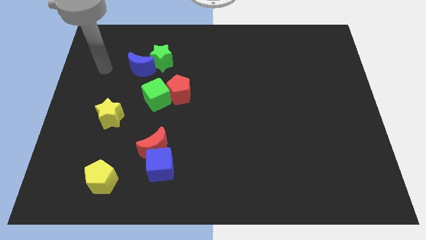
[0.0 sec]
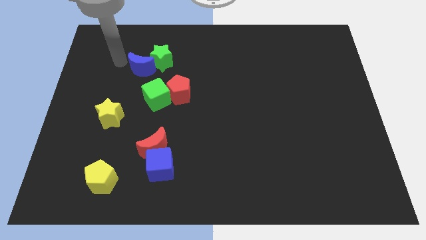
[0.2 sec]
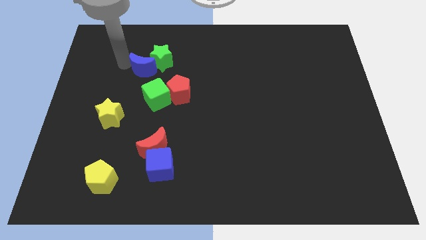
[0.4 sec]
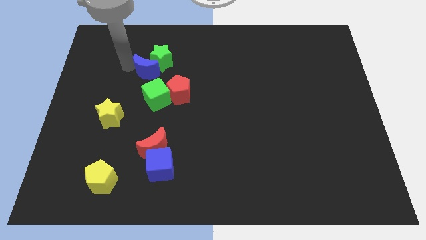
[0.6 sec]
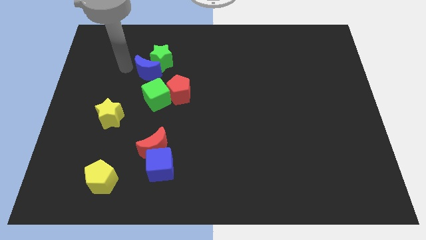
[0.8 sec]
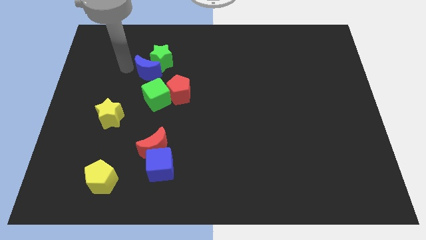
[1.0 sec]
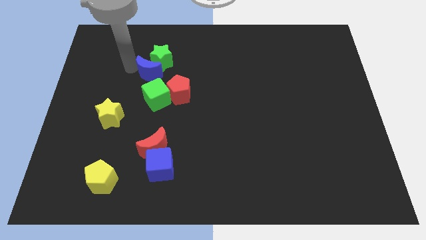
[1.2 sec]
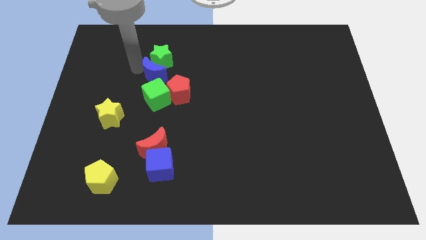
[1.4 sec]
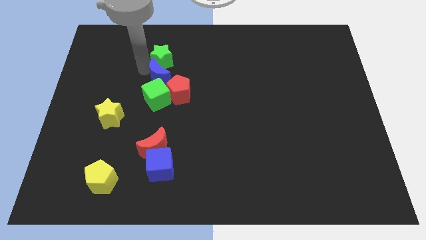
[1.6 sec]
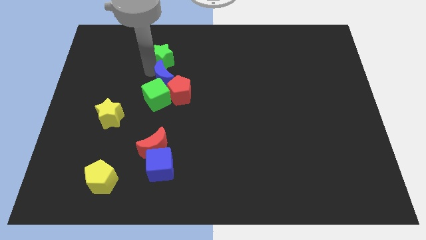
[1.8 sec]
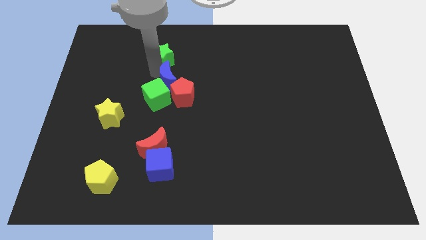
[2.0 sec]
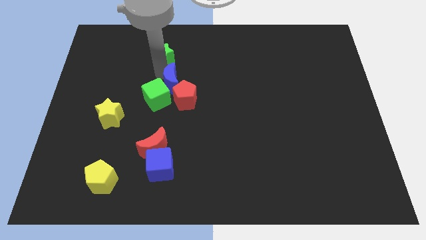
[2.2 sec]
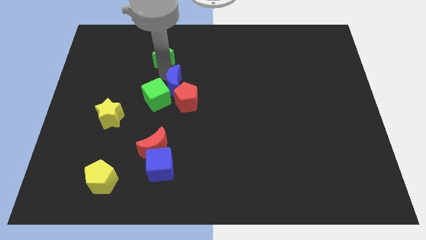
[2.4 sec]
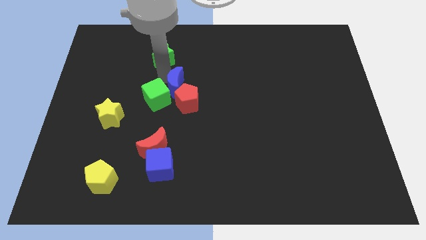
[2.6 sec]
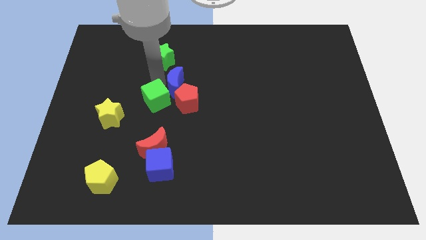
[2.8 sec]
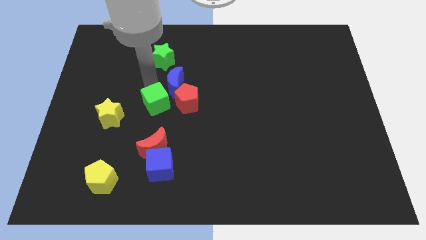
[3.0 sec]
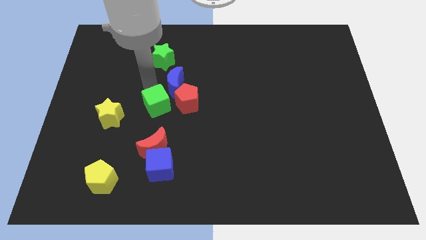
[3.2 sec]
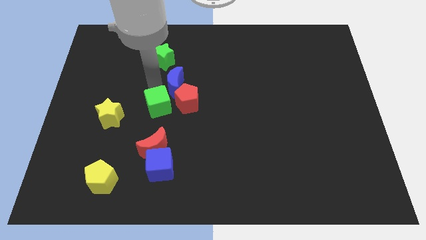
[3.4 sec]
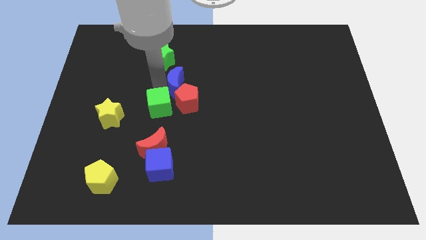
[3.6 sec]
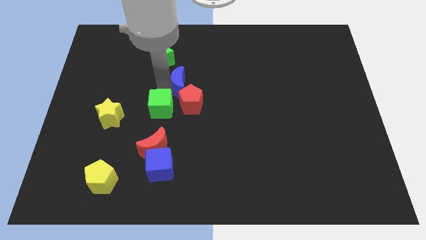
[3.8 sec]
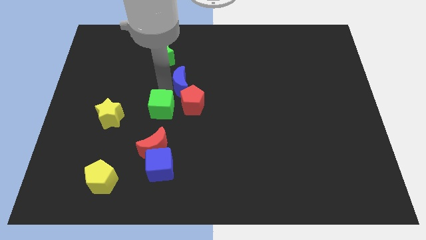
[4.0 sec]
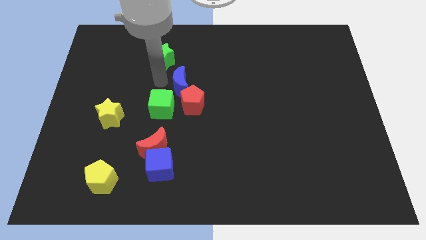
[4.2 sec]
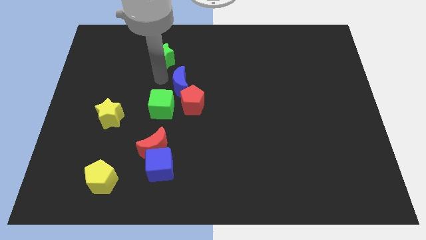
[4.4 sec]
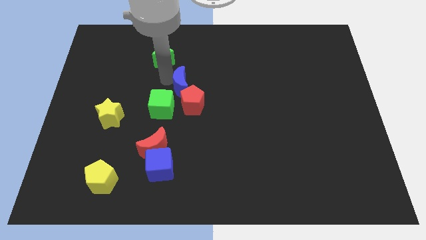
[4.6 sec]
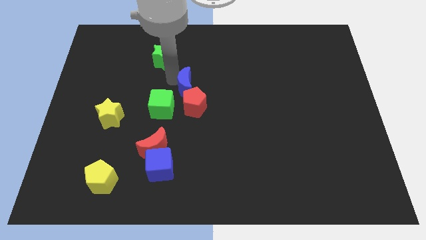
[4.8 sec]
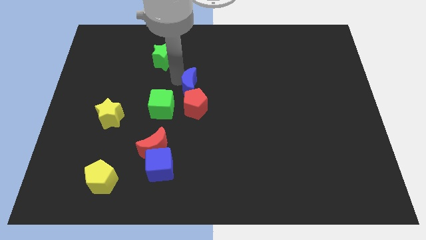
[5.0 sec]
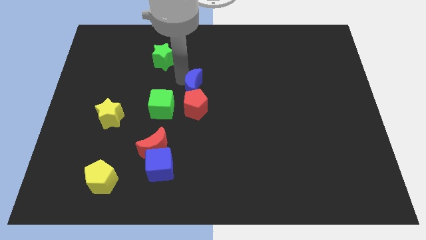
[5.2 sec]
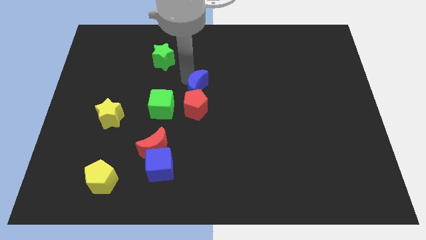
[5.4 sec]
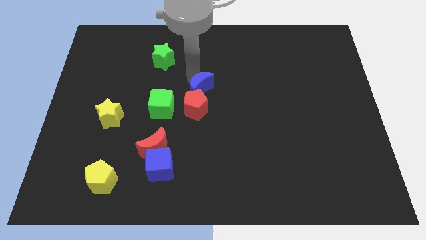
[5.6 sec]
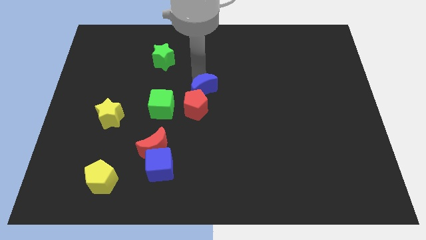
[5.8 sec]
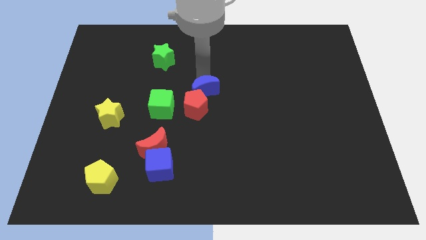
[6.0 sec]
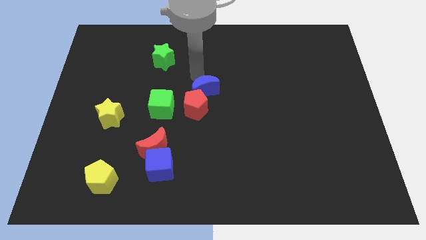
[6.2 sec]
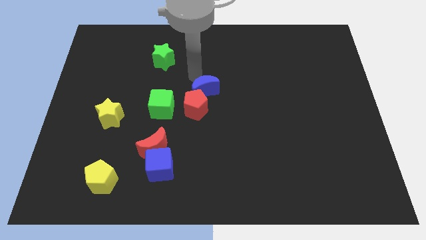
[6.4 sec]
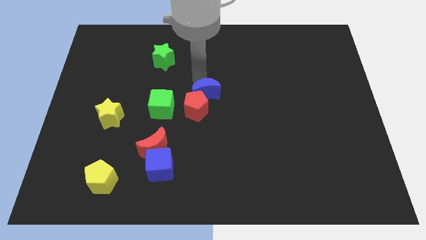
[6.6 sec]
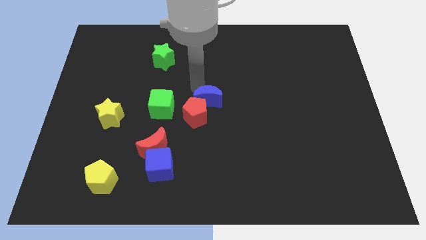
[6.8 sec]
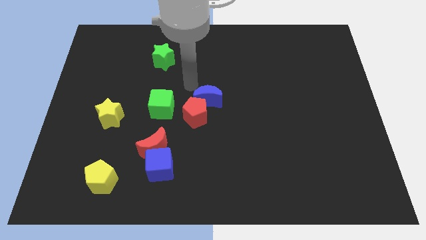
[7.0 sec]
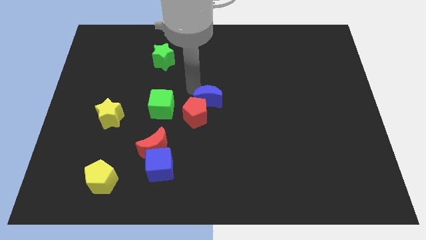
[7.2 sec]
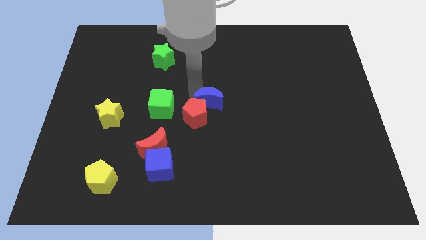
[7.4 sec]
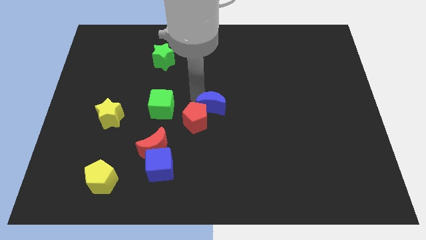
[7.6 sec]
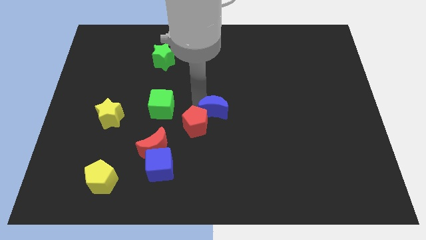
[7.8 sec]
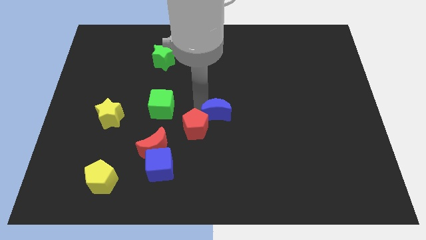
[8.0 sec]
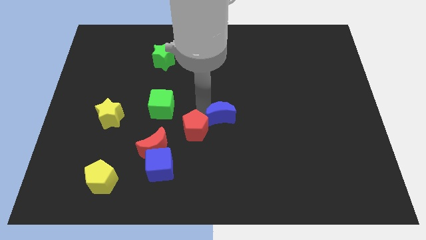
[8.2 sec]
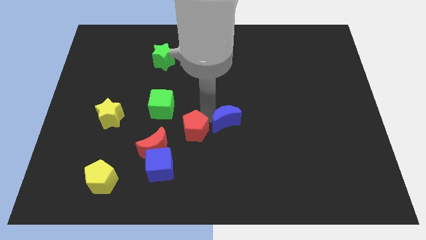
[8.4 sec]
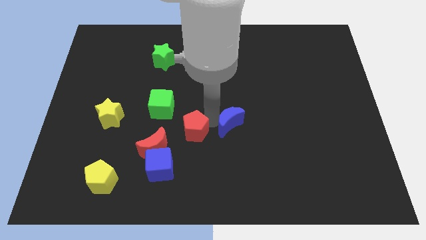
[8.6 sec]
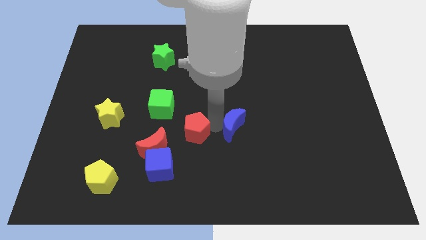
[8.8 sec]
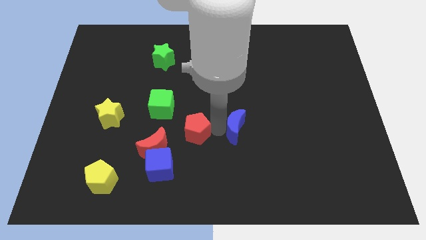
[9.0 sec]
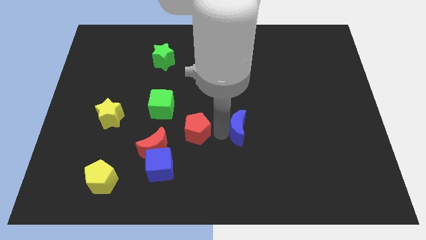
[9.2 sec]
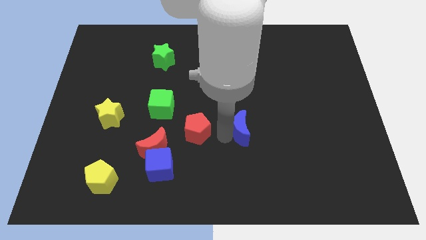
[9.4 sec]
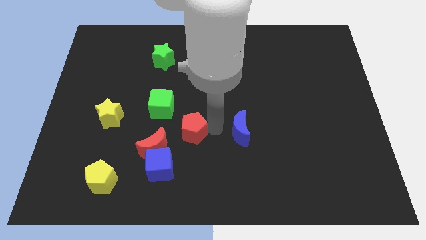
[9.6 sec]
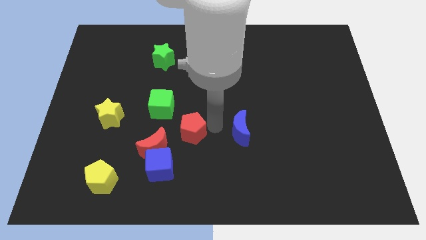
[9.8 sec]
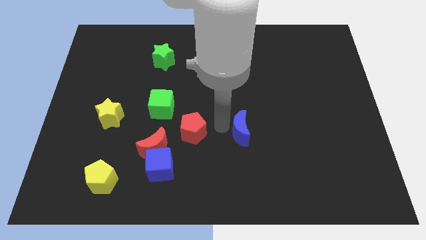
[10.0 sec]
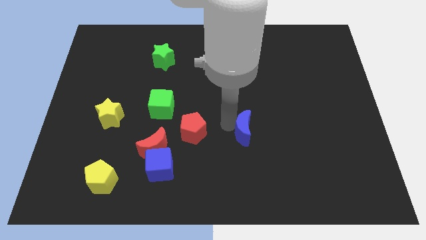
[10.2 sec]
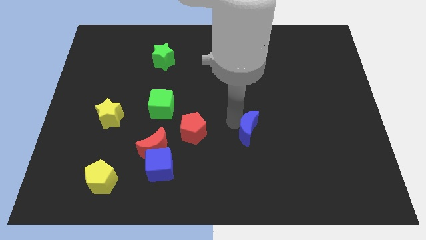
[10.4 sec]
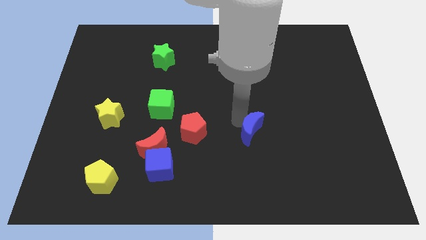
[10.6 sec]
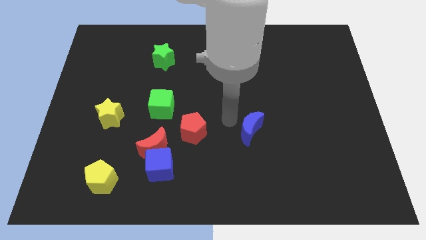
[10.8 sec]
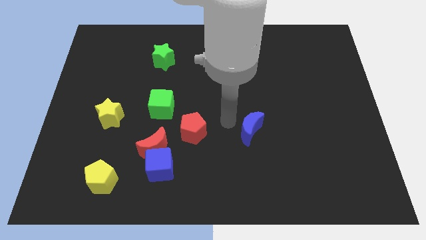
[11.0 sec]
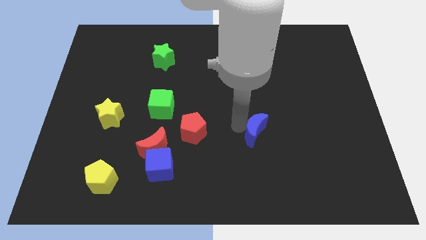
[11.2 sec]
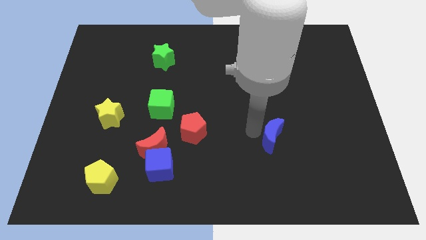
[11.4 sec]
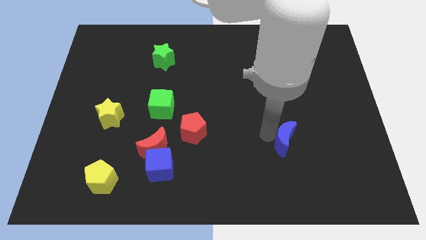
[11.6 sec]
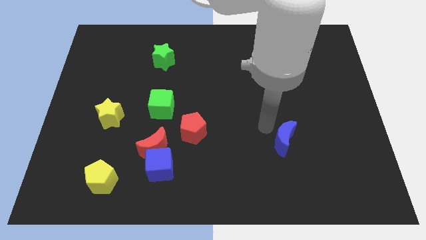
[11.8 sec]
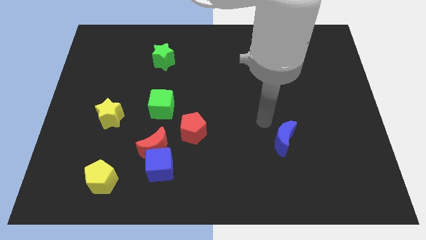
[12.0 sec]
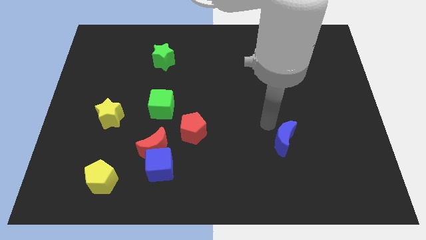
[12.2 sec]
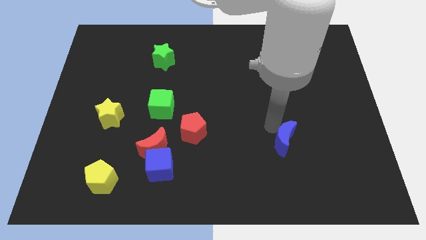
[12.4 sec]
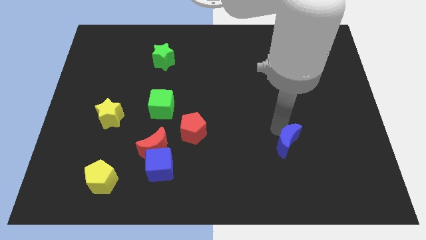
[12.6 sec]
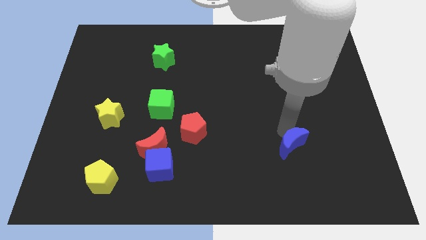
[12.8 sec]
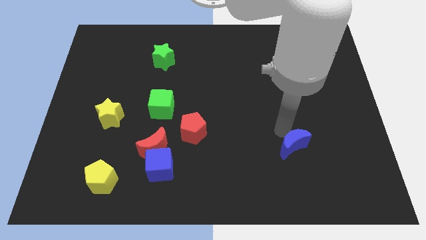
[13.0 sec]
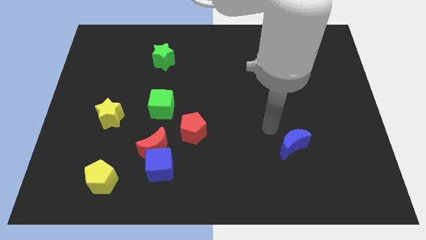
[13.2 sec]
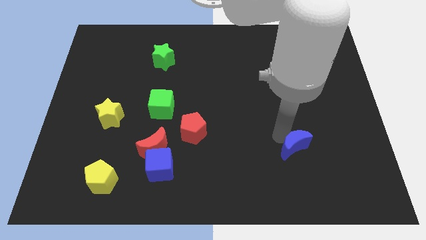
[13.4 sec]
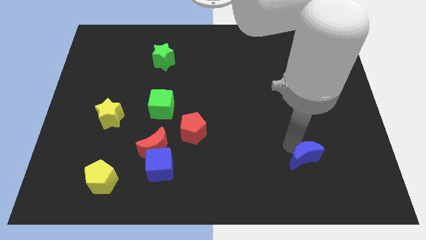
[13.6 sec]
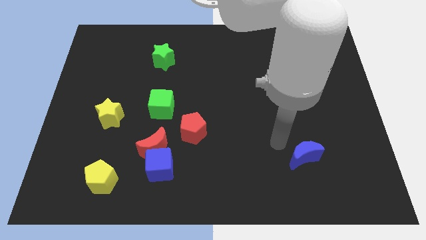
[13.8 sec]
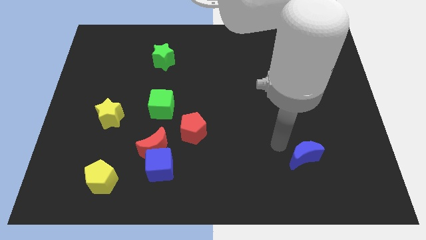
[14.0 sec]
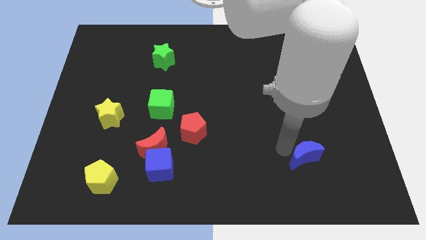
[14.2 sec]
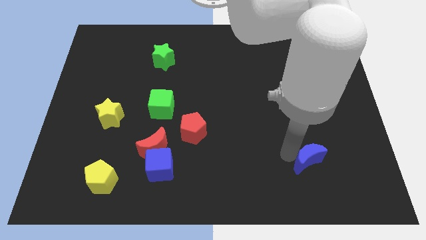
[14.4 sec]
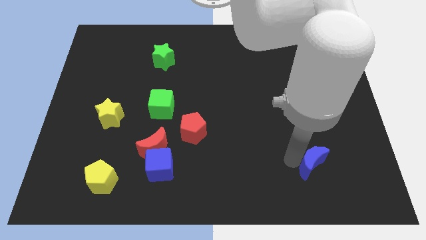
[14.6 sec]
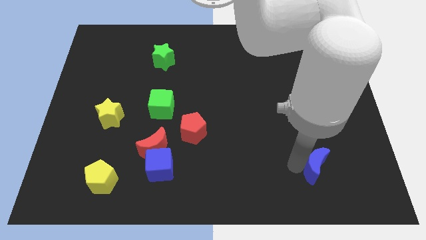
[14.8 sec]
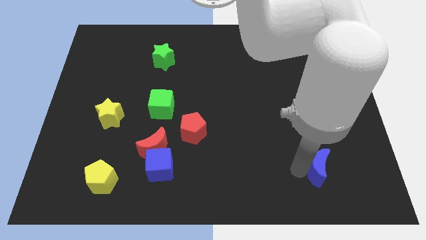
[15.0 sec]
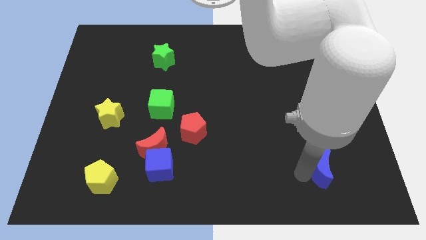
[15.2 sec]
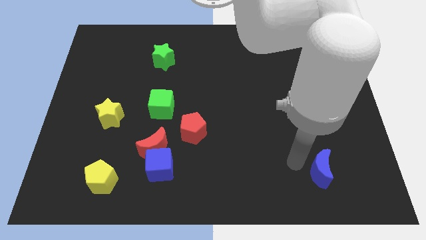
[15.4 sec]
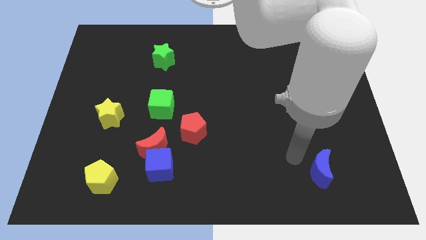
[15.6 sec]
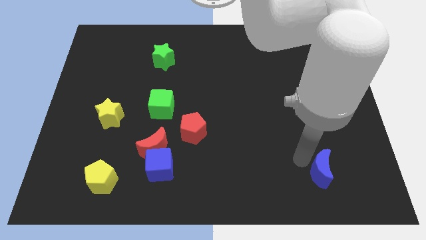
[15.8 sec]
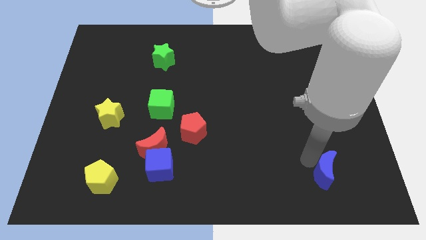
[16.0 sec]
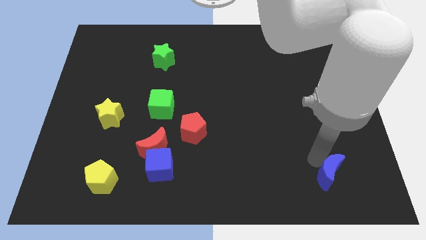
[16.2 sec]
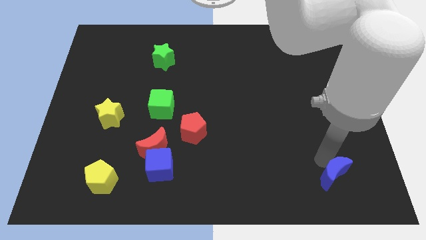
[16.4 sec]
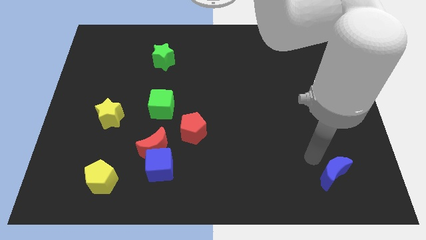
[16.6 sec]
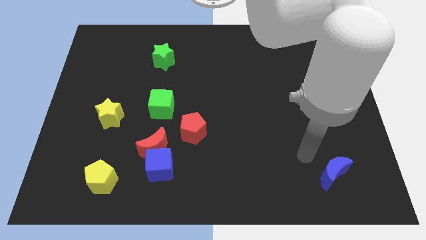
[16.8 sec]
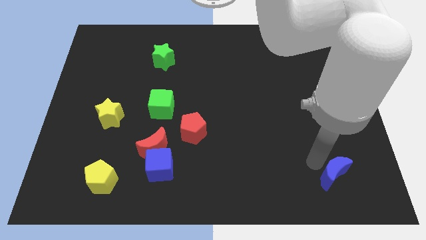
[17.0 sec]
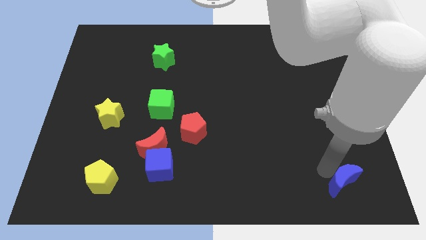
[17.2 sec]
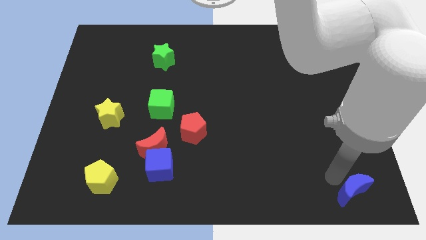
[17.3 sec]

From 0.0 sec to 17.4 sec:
slide the blue moon to the bottom right of the board
